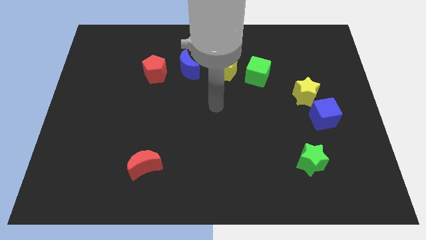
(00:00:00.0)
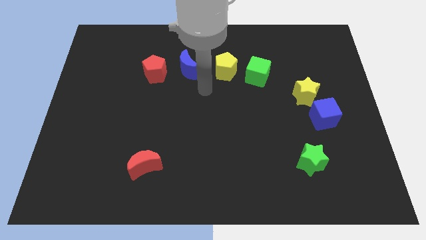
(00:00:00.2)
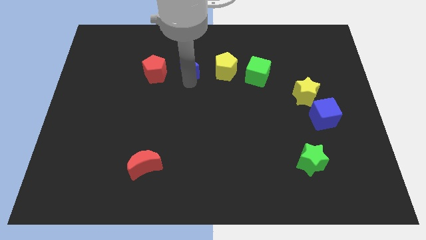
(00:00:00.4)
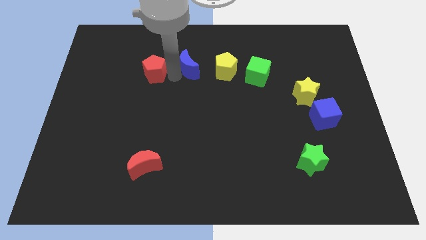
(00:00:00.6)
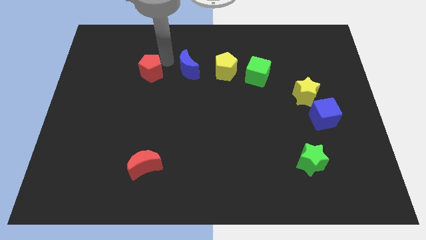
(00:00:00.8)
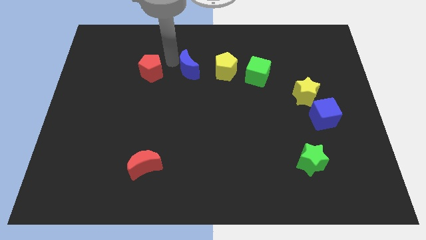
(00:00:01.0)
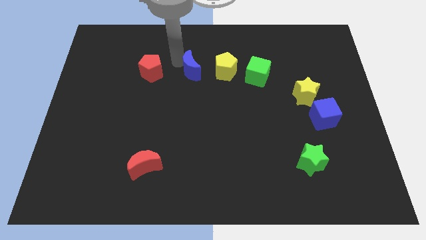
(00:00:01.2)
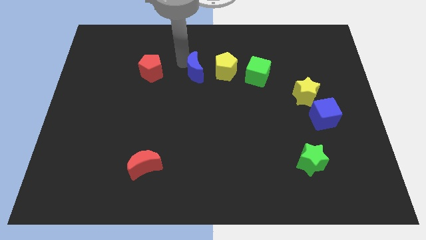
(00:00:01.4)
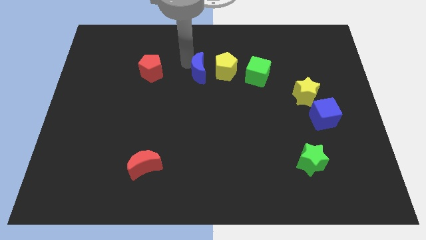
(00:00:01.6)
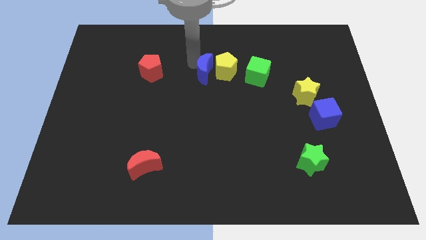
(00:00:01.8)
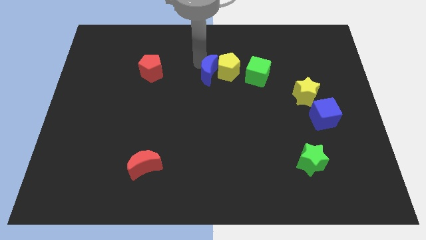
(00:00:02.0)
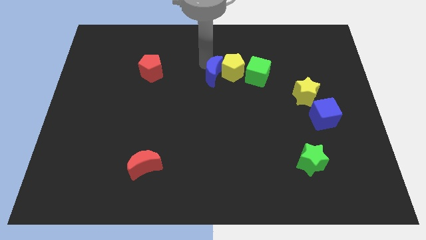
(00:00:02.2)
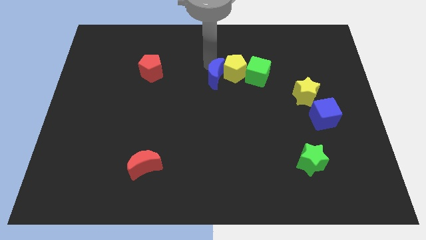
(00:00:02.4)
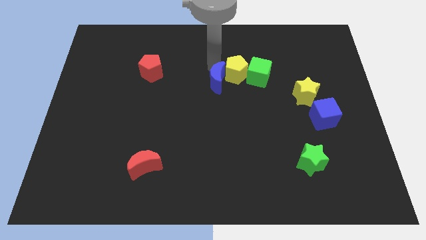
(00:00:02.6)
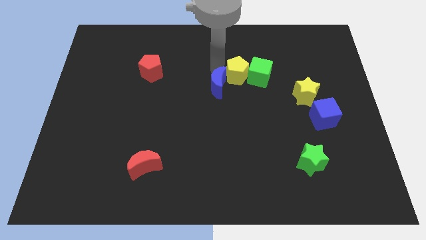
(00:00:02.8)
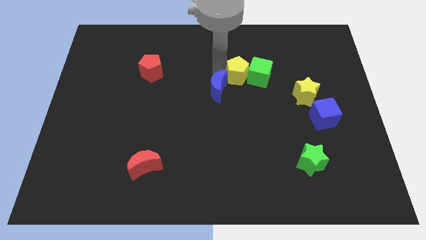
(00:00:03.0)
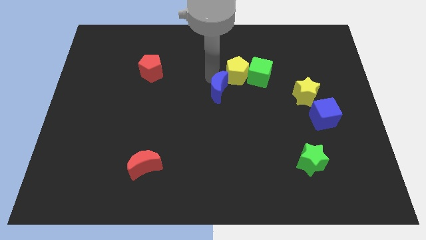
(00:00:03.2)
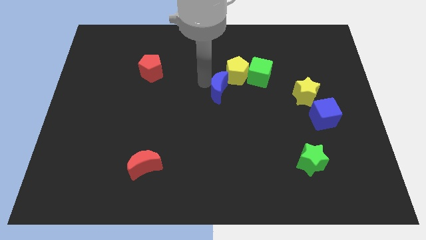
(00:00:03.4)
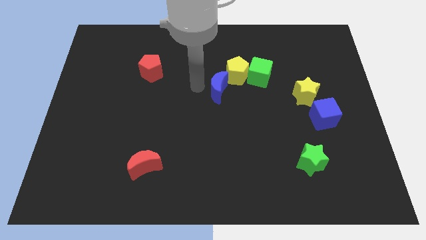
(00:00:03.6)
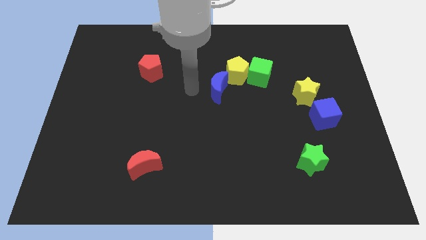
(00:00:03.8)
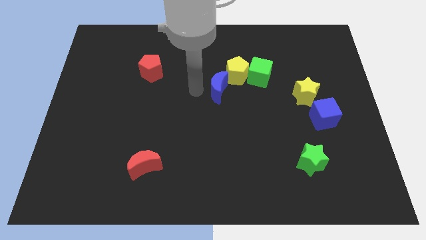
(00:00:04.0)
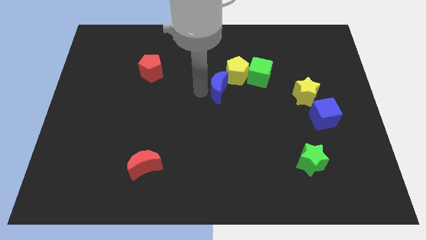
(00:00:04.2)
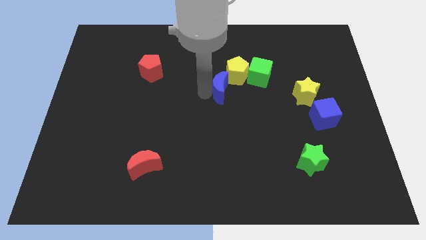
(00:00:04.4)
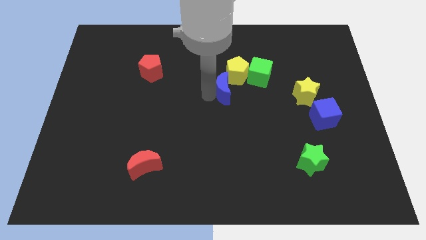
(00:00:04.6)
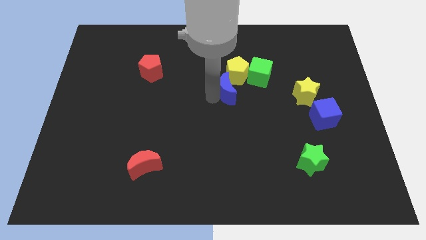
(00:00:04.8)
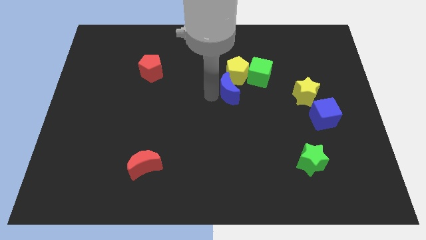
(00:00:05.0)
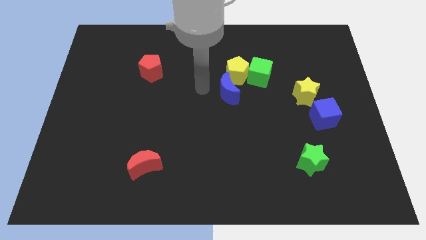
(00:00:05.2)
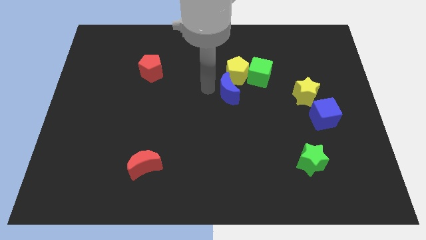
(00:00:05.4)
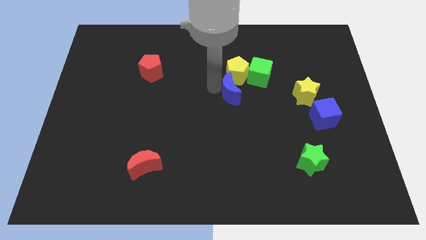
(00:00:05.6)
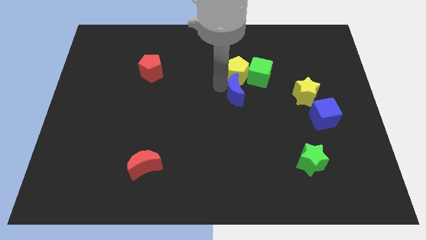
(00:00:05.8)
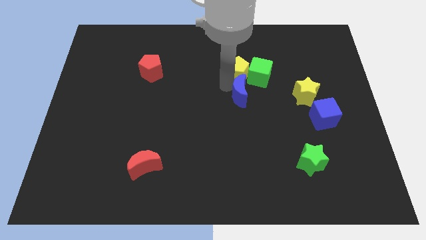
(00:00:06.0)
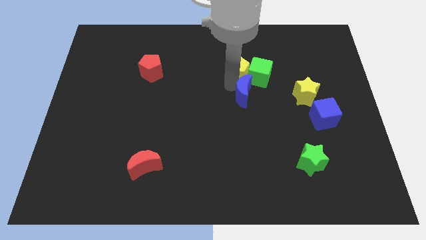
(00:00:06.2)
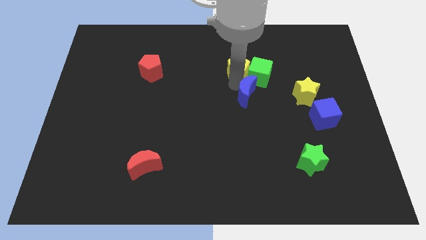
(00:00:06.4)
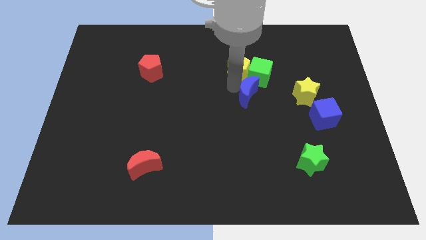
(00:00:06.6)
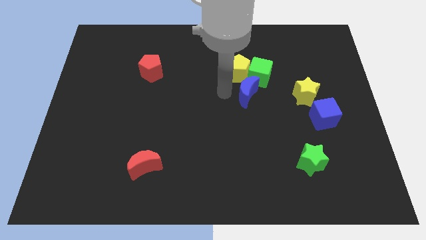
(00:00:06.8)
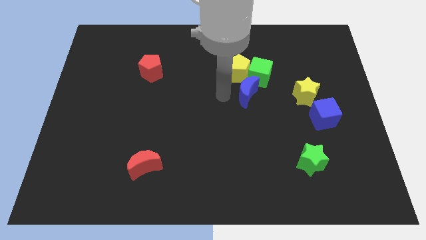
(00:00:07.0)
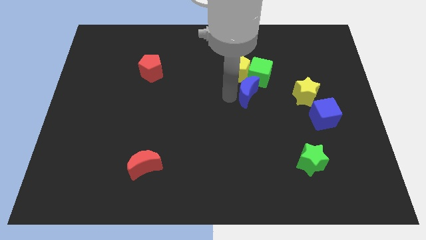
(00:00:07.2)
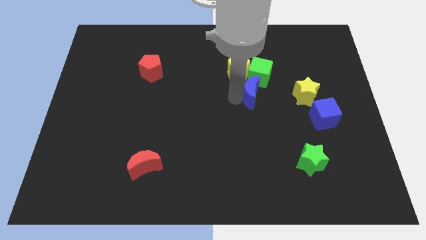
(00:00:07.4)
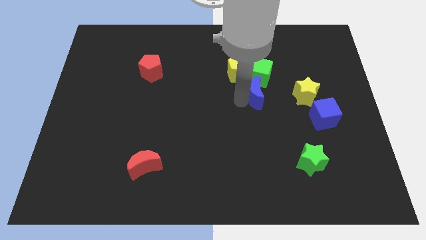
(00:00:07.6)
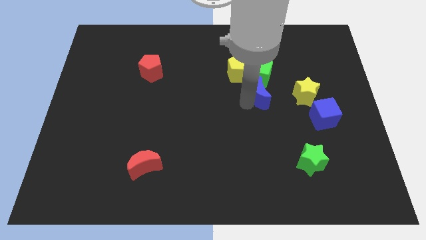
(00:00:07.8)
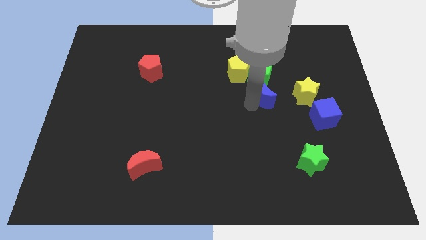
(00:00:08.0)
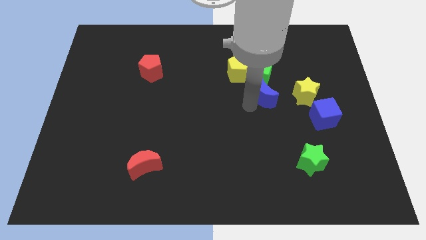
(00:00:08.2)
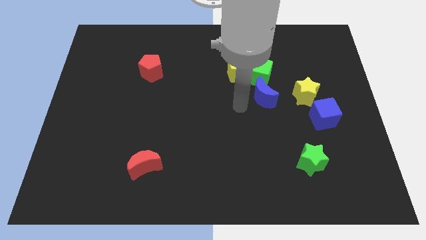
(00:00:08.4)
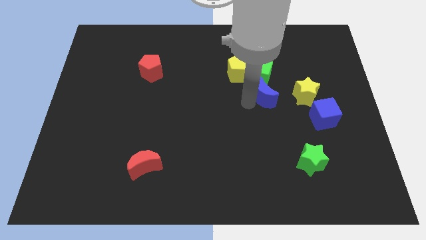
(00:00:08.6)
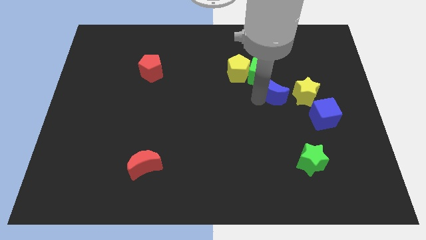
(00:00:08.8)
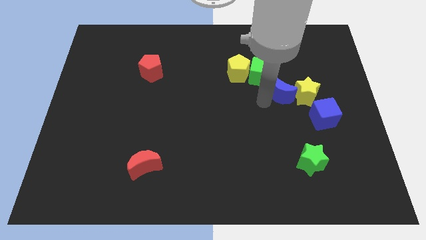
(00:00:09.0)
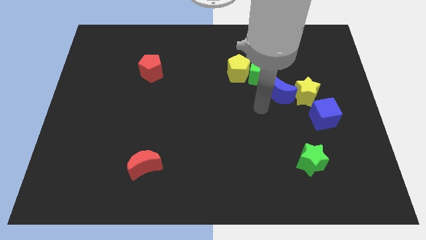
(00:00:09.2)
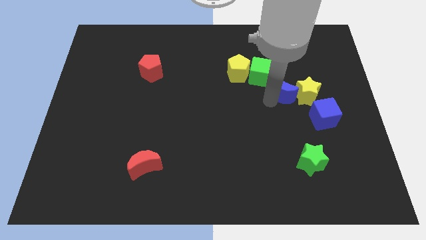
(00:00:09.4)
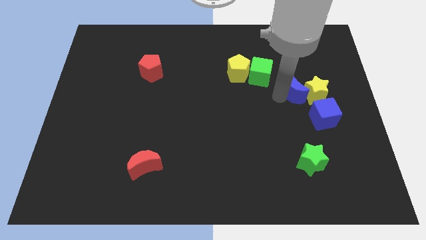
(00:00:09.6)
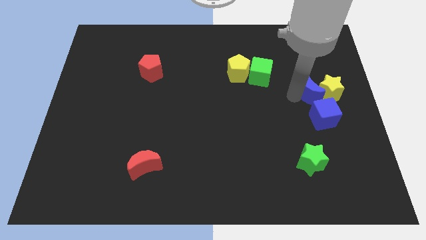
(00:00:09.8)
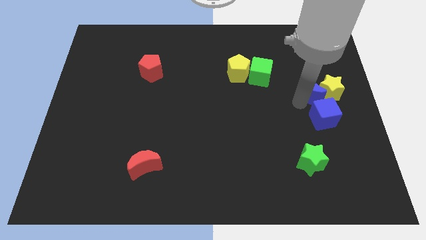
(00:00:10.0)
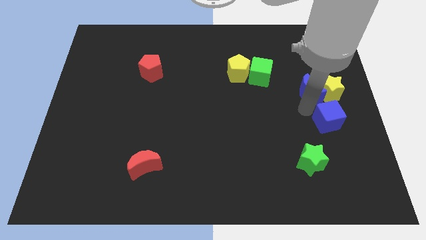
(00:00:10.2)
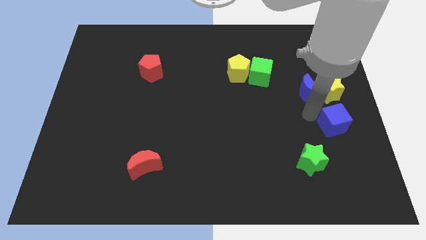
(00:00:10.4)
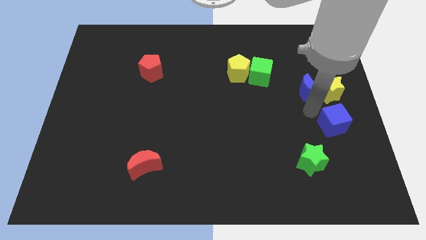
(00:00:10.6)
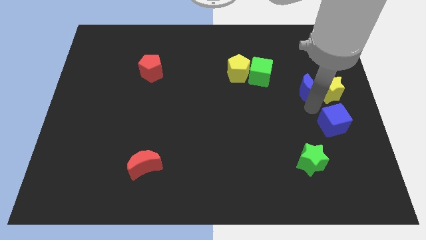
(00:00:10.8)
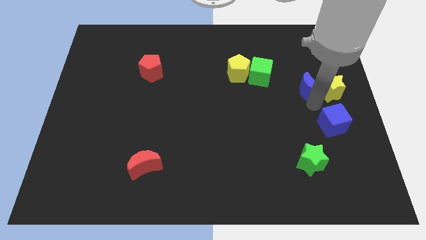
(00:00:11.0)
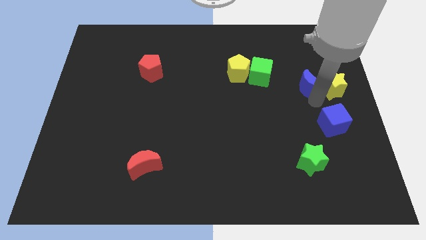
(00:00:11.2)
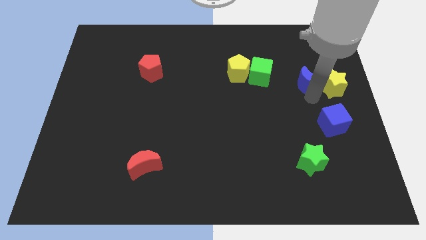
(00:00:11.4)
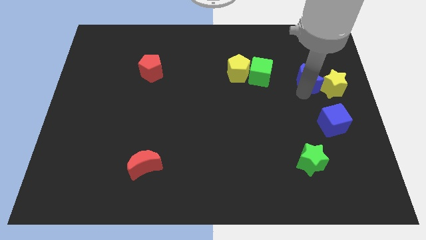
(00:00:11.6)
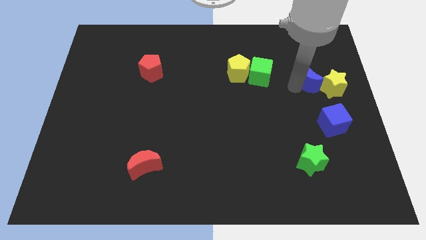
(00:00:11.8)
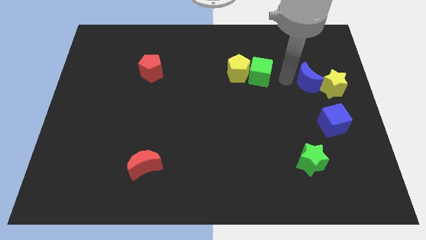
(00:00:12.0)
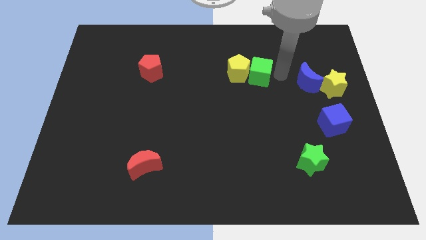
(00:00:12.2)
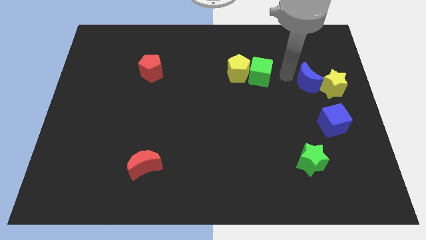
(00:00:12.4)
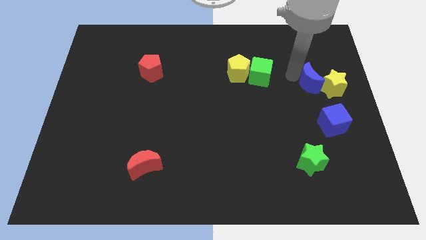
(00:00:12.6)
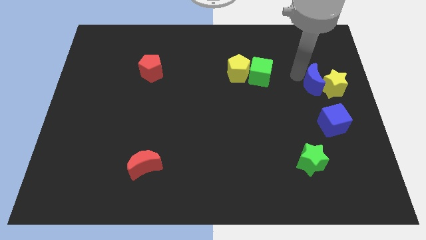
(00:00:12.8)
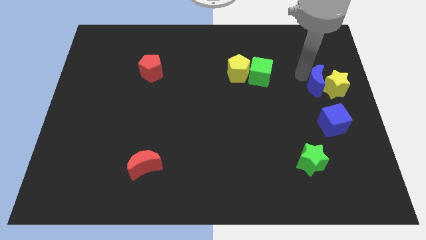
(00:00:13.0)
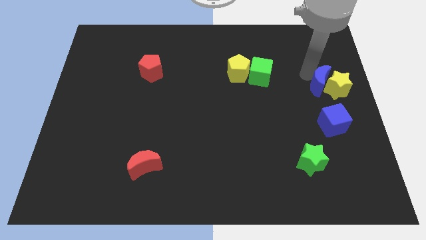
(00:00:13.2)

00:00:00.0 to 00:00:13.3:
move the blue moon to the right side of the board
